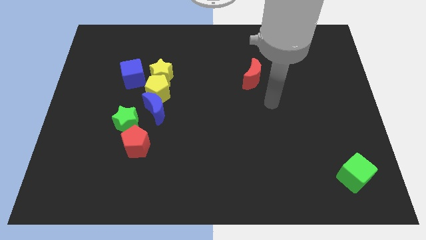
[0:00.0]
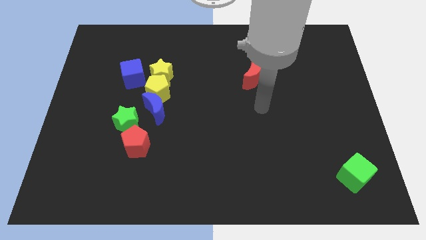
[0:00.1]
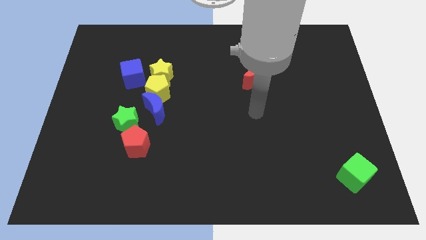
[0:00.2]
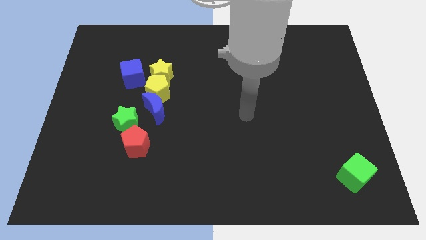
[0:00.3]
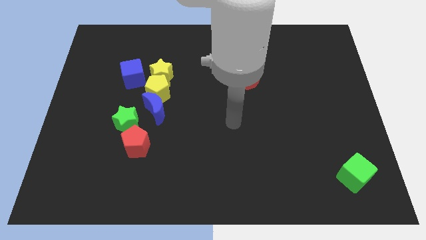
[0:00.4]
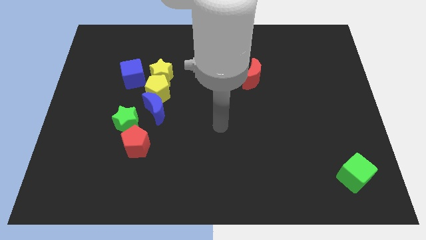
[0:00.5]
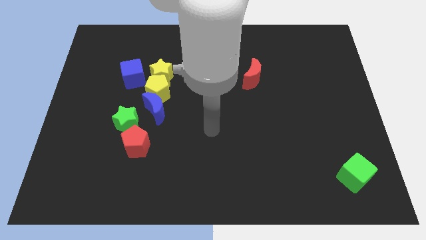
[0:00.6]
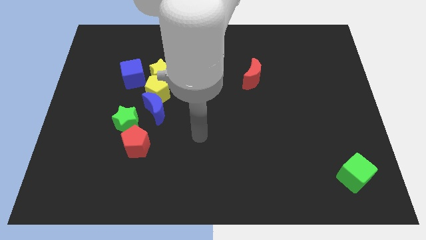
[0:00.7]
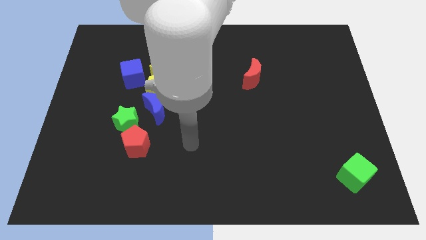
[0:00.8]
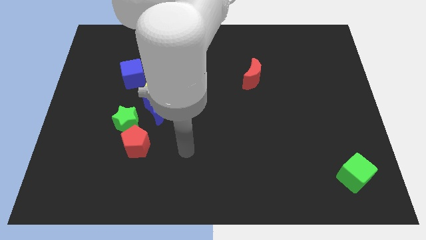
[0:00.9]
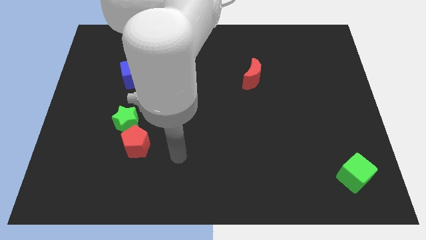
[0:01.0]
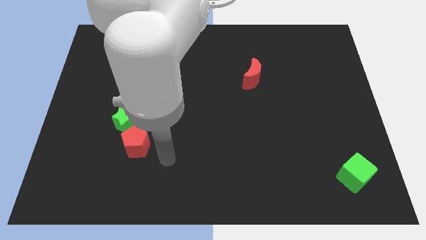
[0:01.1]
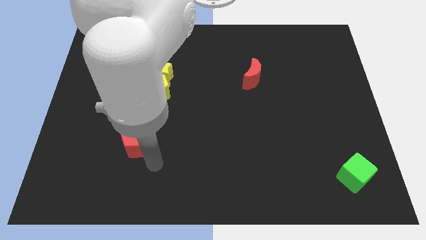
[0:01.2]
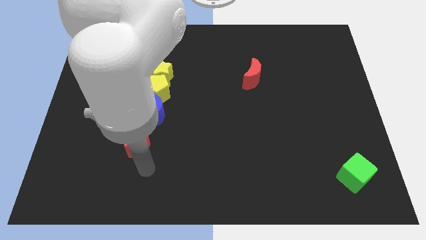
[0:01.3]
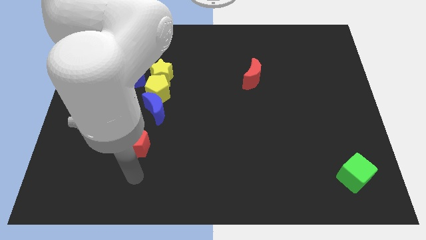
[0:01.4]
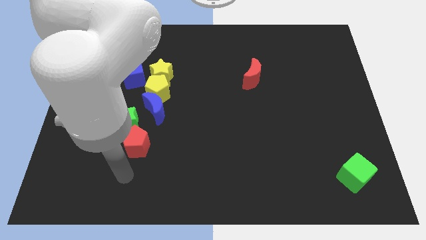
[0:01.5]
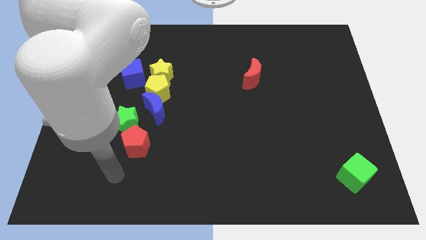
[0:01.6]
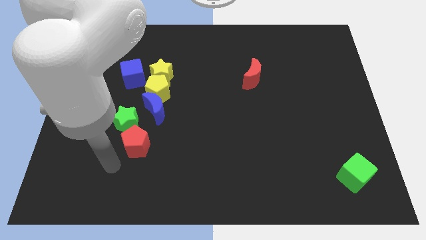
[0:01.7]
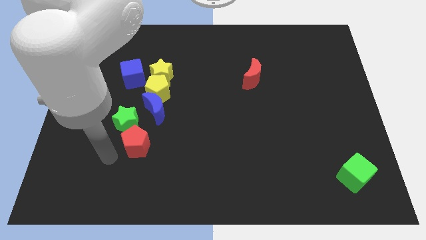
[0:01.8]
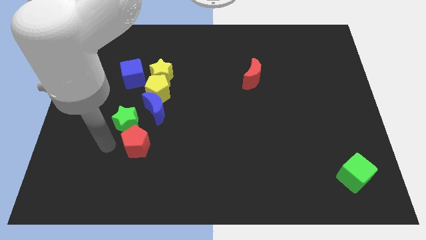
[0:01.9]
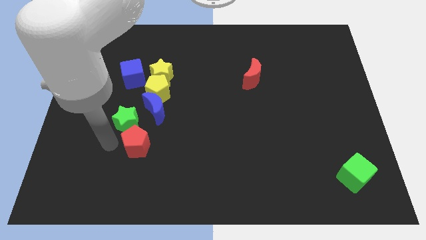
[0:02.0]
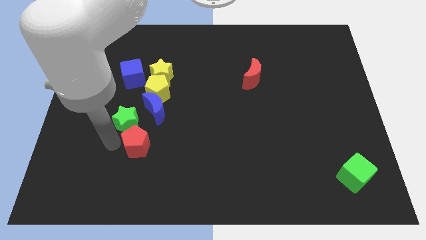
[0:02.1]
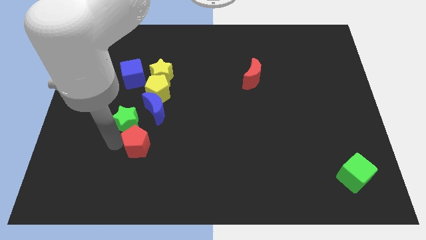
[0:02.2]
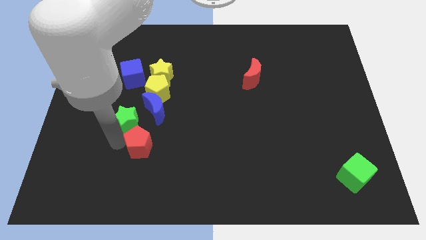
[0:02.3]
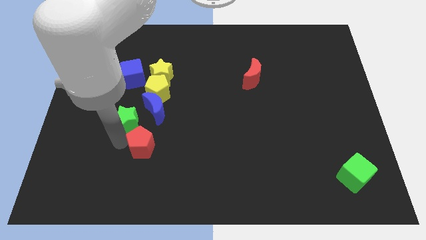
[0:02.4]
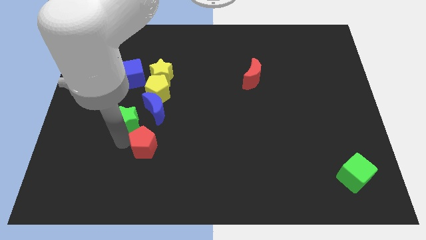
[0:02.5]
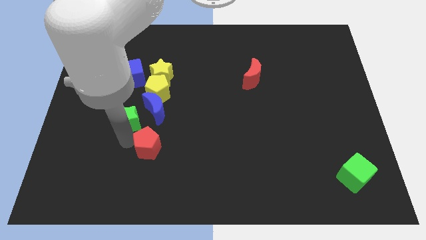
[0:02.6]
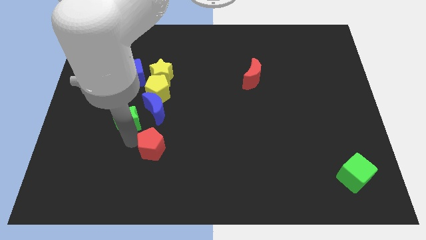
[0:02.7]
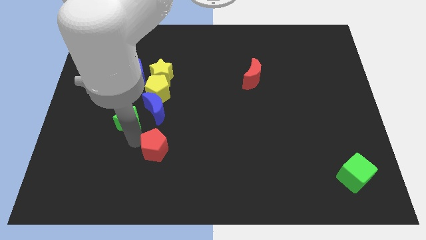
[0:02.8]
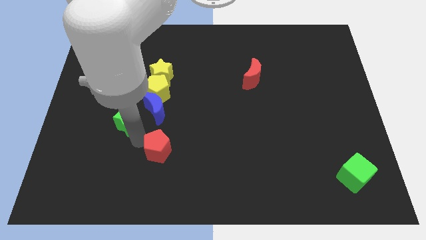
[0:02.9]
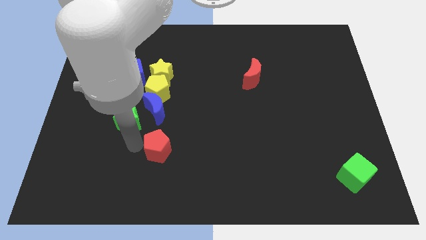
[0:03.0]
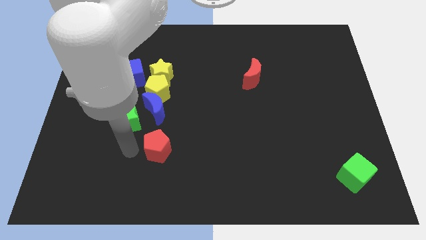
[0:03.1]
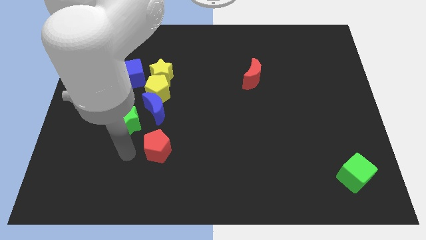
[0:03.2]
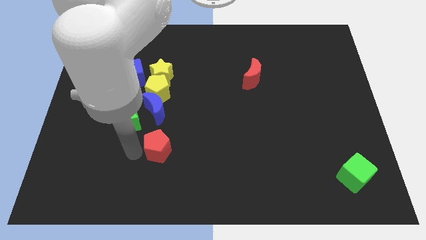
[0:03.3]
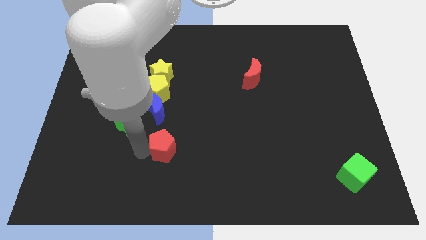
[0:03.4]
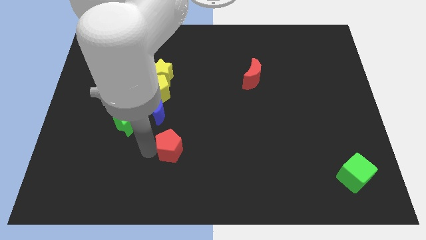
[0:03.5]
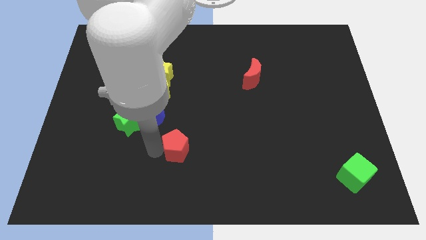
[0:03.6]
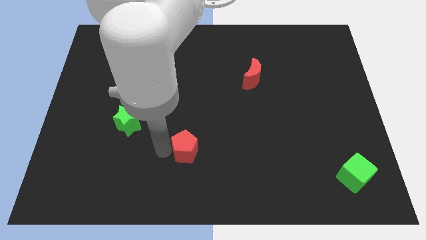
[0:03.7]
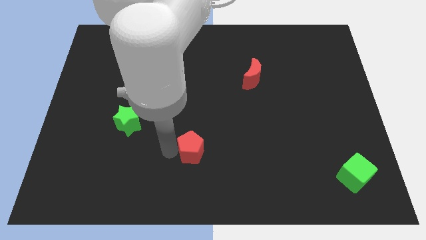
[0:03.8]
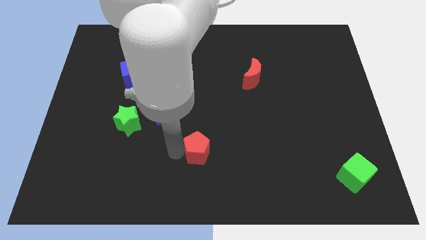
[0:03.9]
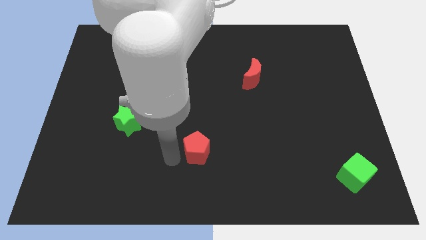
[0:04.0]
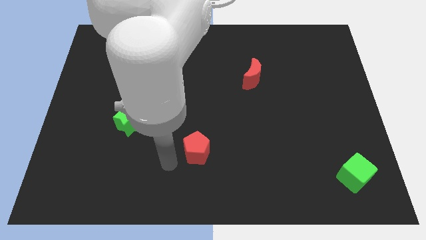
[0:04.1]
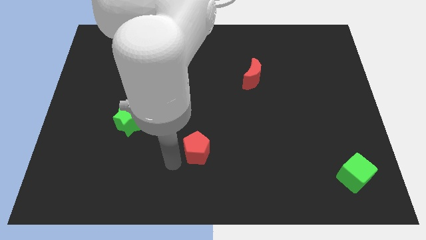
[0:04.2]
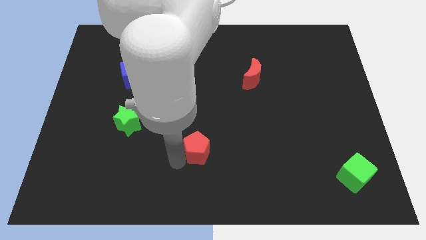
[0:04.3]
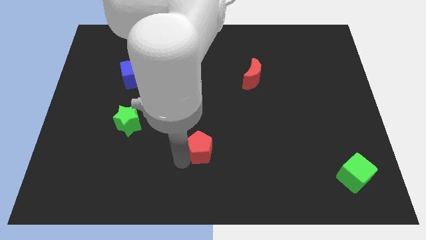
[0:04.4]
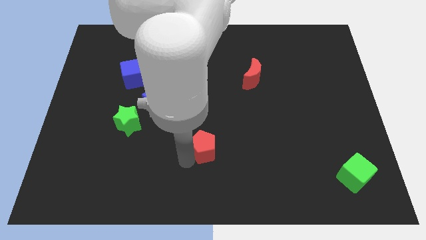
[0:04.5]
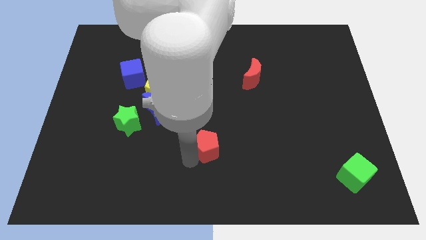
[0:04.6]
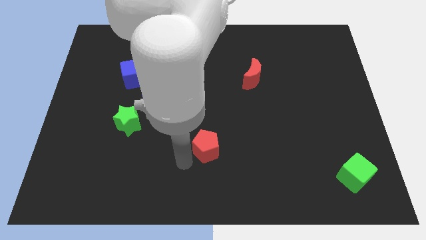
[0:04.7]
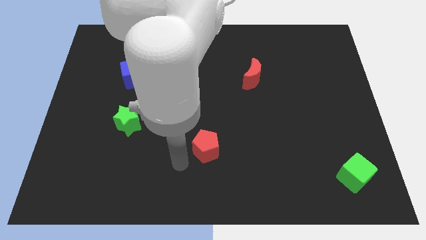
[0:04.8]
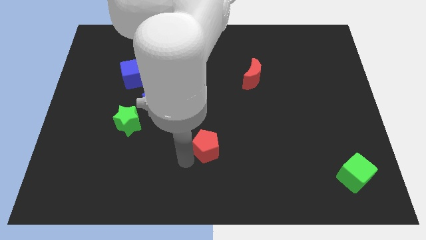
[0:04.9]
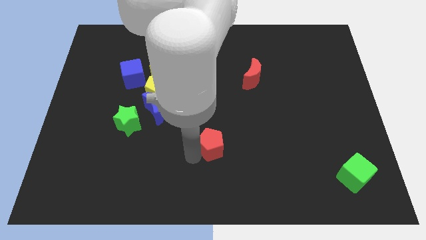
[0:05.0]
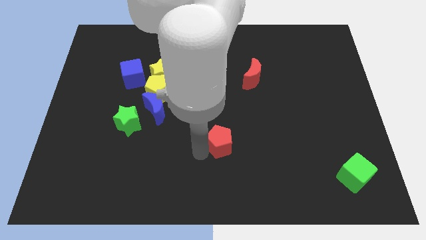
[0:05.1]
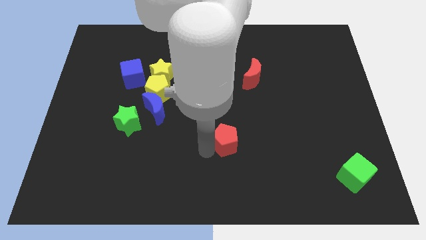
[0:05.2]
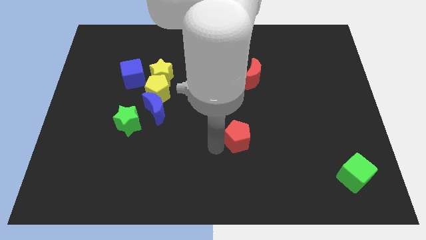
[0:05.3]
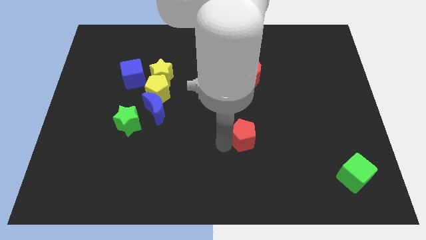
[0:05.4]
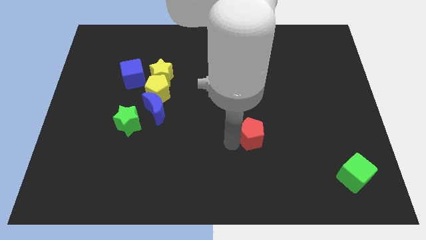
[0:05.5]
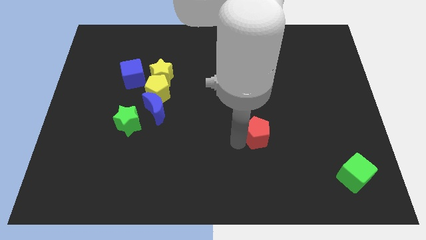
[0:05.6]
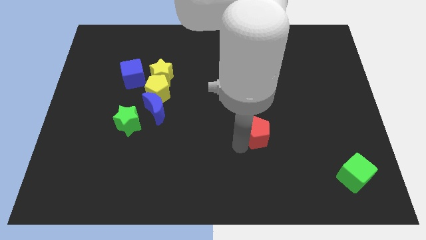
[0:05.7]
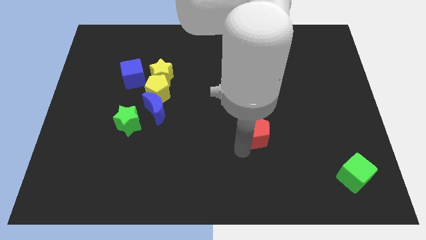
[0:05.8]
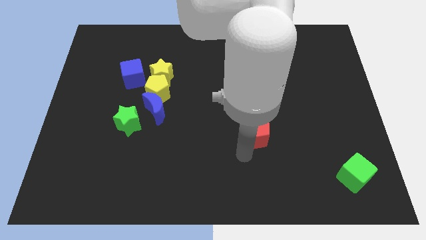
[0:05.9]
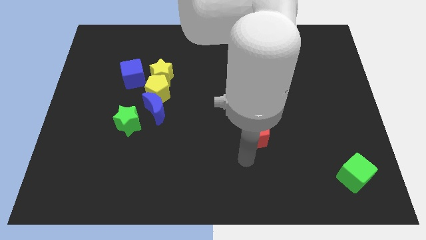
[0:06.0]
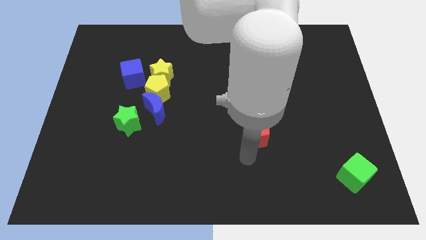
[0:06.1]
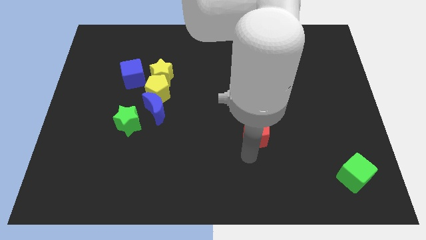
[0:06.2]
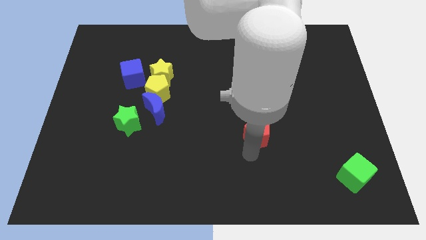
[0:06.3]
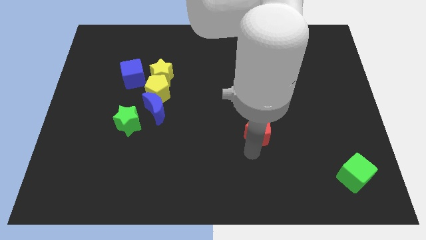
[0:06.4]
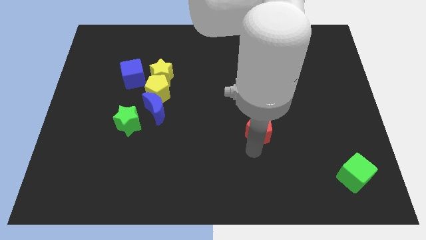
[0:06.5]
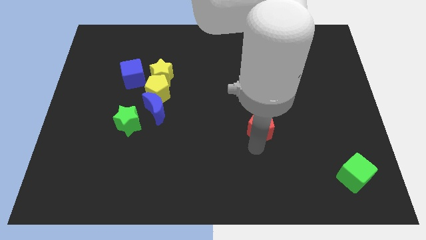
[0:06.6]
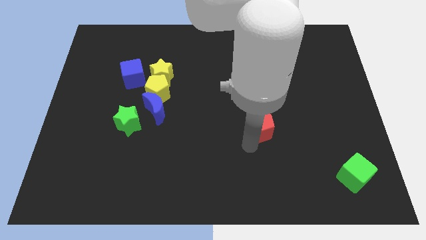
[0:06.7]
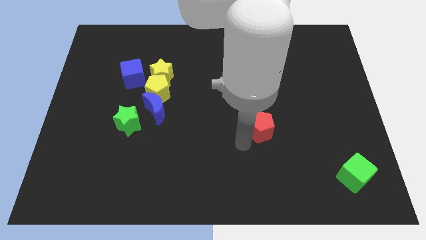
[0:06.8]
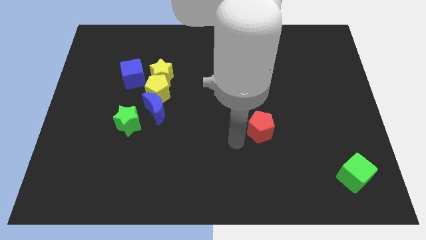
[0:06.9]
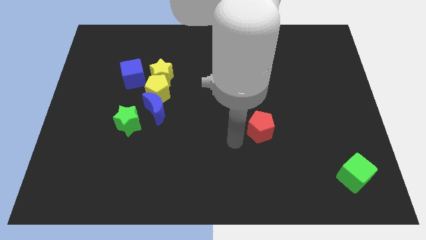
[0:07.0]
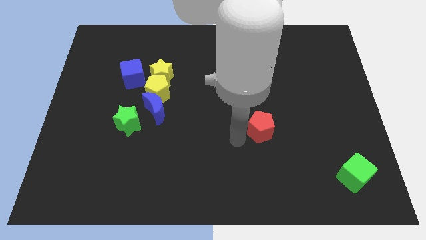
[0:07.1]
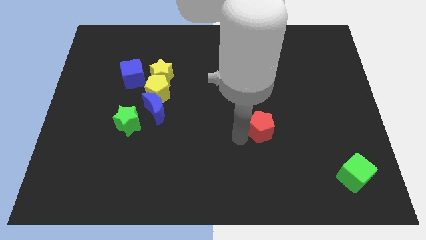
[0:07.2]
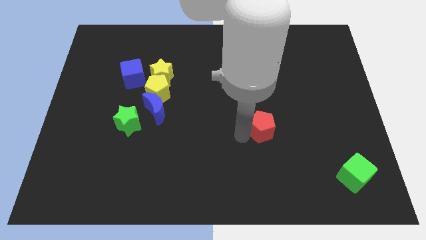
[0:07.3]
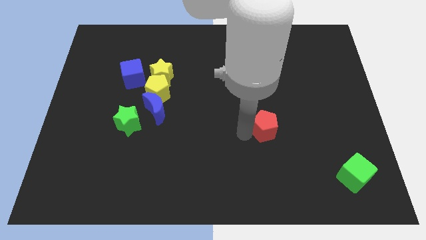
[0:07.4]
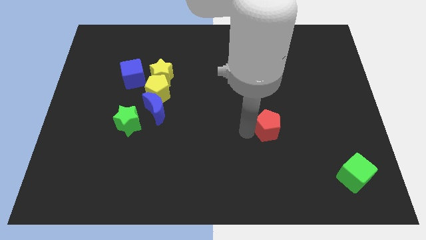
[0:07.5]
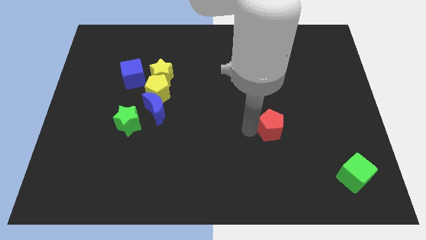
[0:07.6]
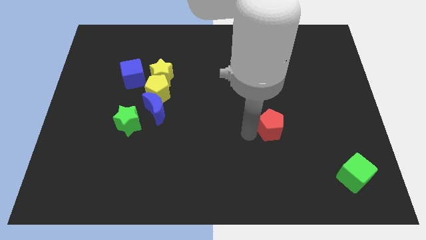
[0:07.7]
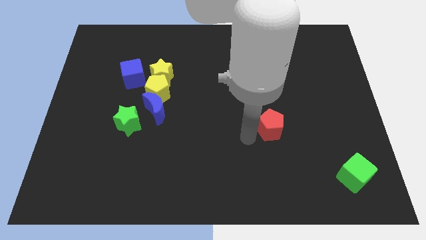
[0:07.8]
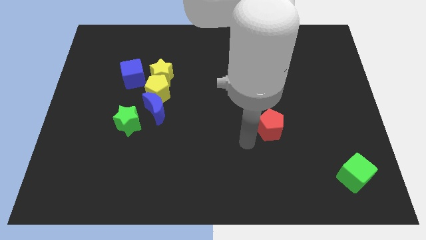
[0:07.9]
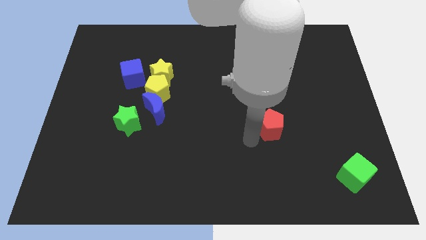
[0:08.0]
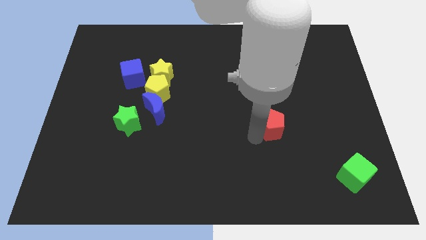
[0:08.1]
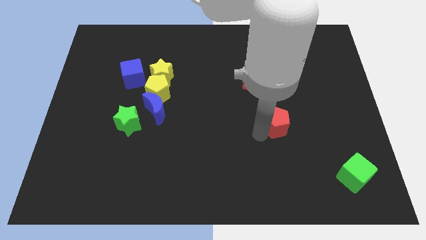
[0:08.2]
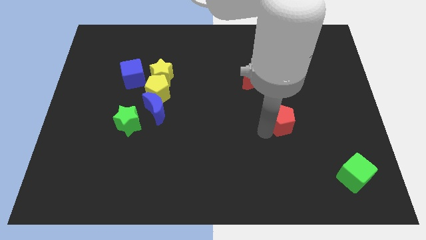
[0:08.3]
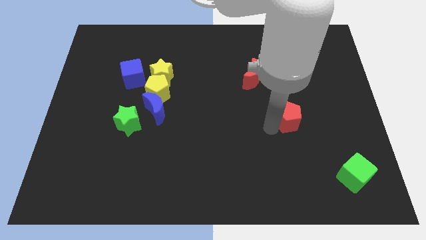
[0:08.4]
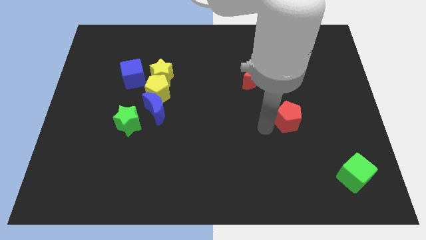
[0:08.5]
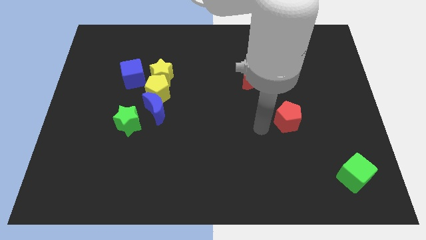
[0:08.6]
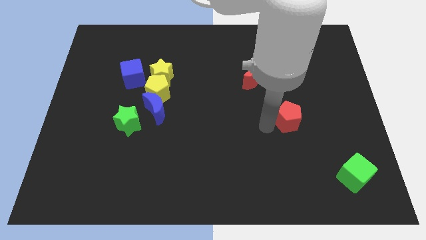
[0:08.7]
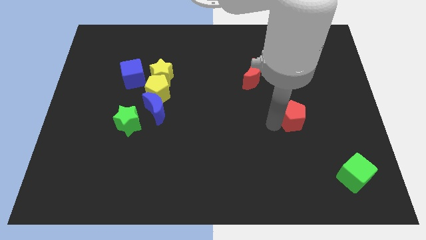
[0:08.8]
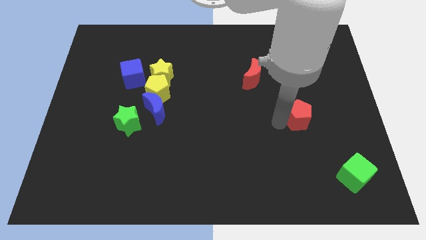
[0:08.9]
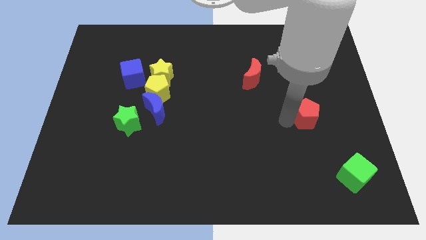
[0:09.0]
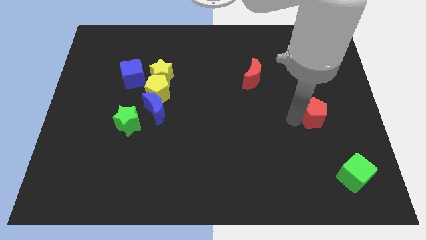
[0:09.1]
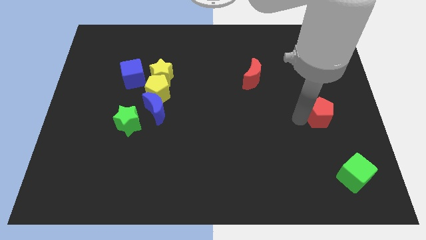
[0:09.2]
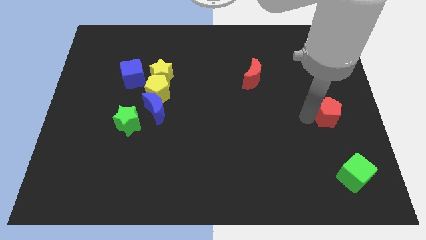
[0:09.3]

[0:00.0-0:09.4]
slide the red pentagon to the right side
